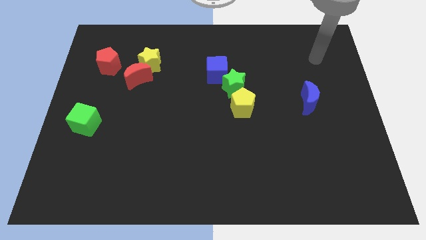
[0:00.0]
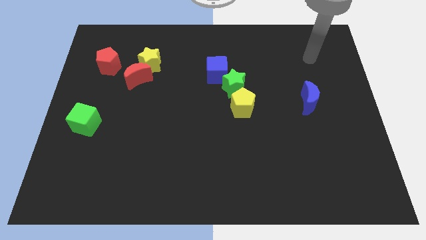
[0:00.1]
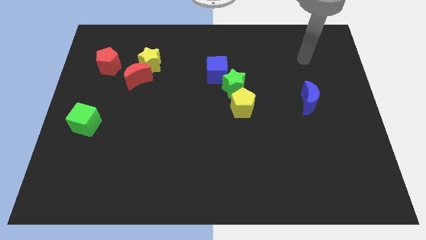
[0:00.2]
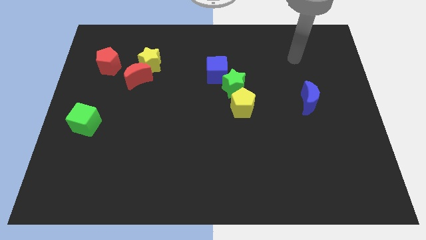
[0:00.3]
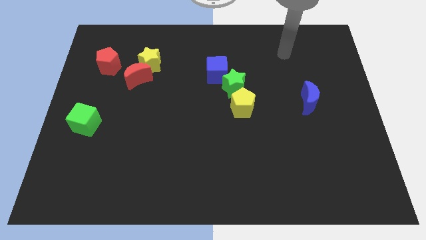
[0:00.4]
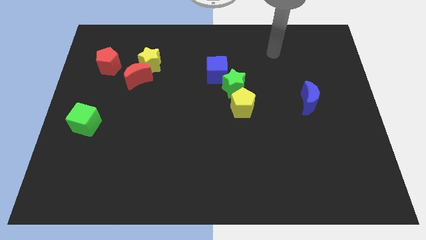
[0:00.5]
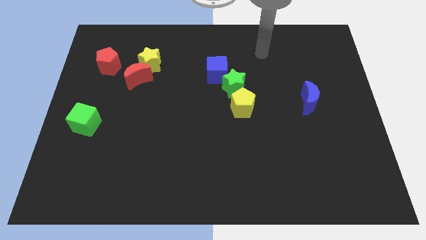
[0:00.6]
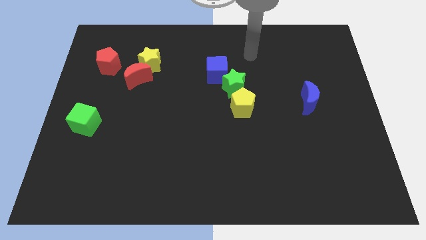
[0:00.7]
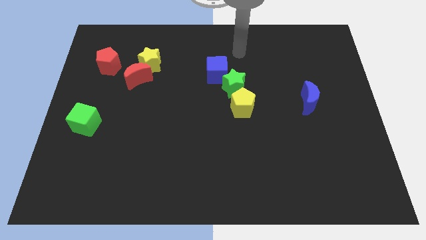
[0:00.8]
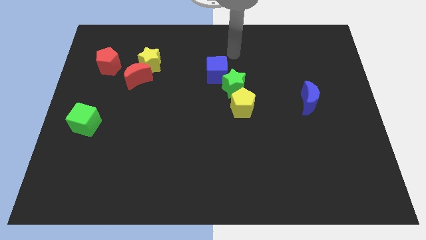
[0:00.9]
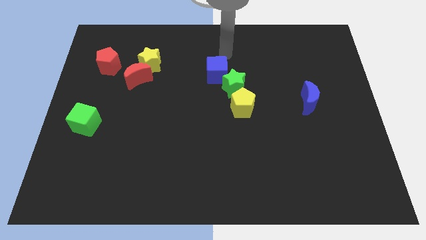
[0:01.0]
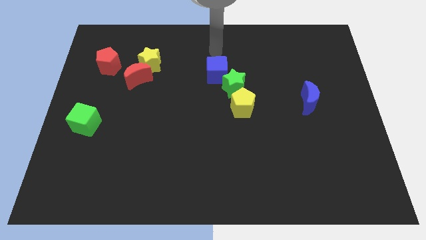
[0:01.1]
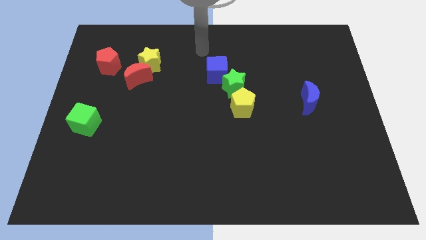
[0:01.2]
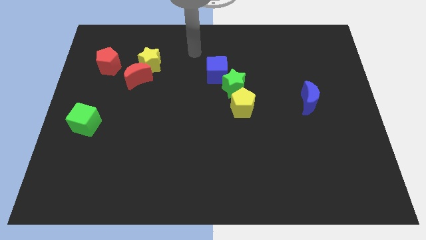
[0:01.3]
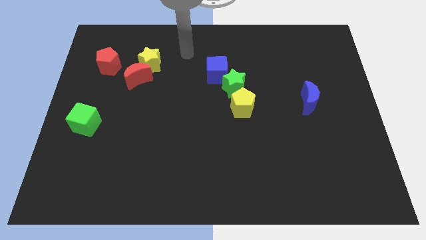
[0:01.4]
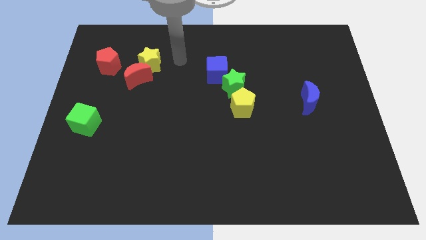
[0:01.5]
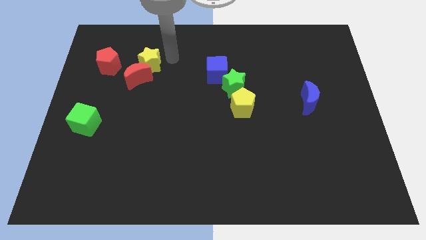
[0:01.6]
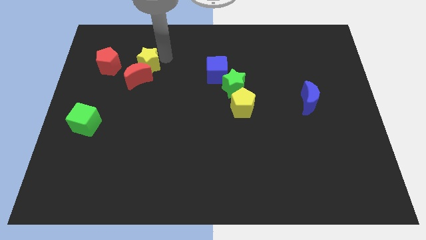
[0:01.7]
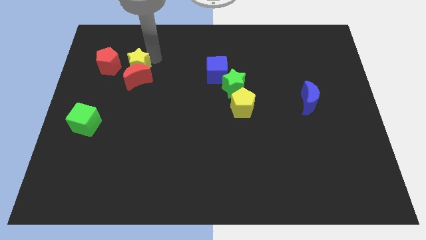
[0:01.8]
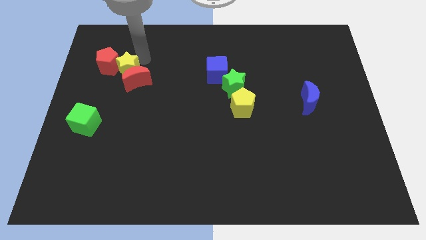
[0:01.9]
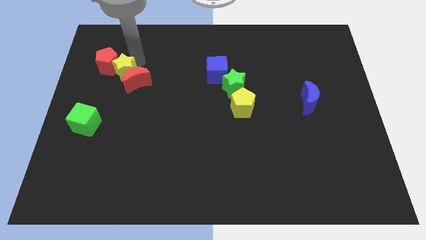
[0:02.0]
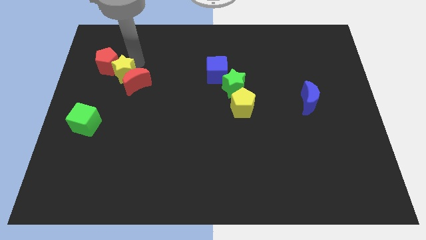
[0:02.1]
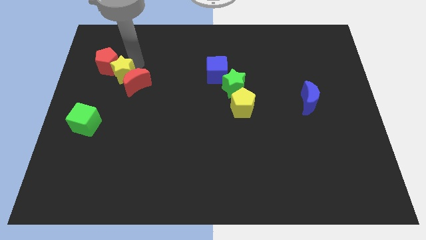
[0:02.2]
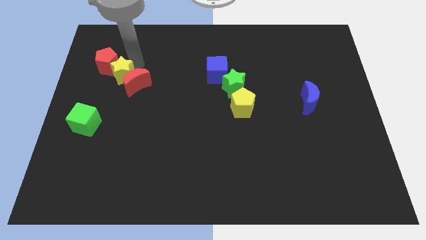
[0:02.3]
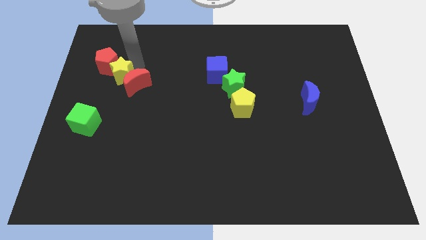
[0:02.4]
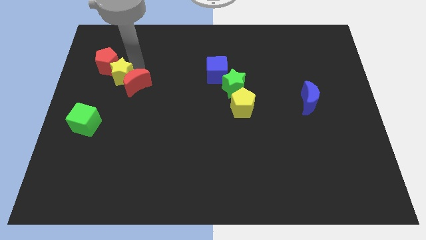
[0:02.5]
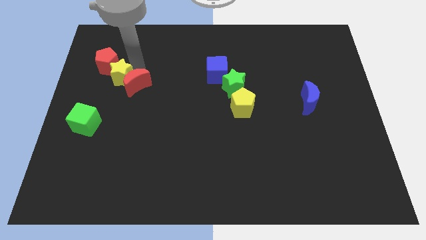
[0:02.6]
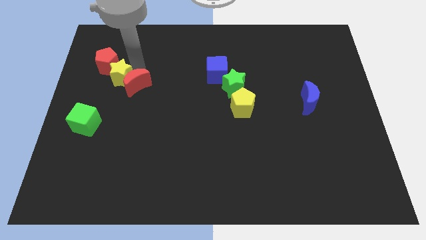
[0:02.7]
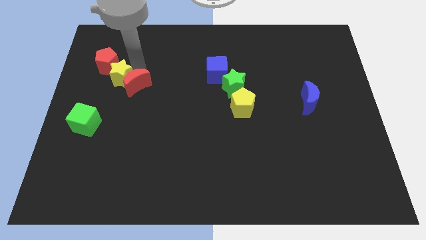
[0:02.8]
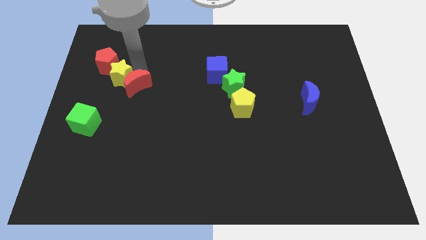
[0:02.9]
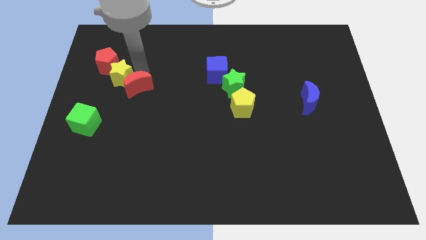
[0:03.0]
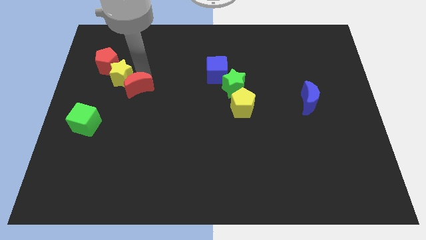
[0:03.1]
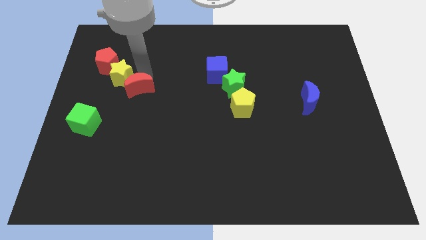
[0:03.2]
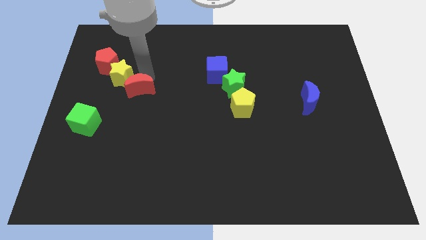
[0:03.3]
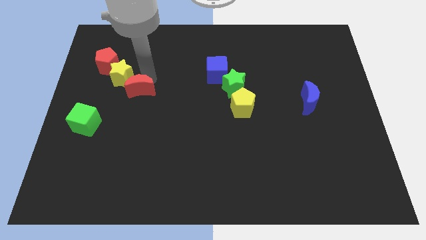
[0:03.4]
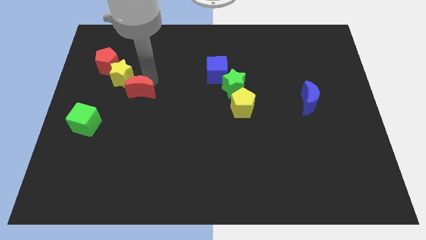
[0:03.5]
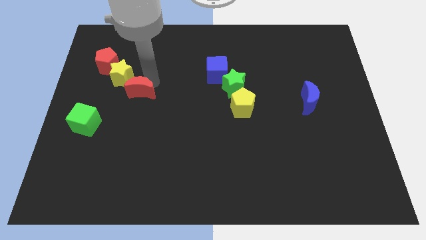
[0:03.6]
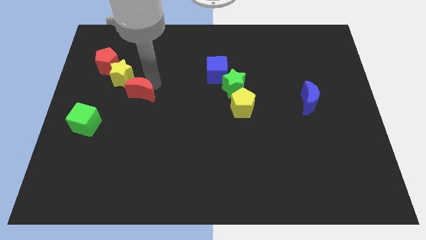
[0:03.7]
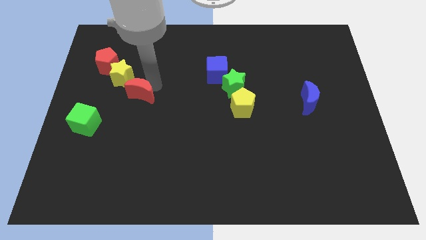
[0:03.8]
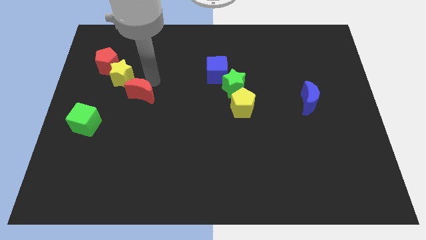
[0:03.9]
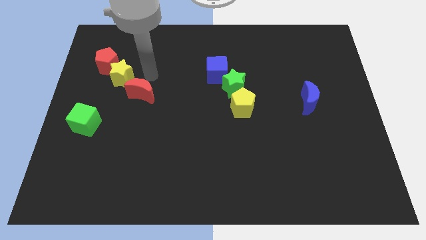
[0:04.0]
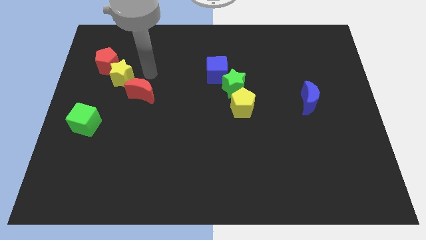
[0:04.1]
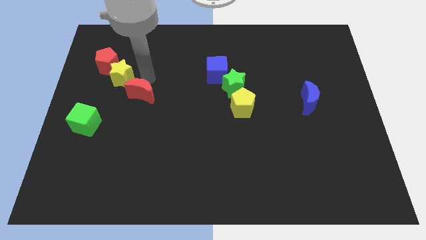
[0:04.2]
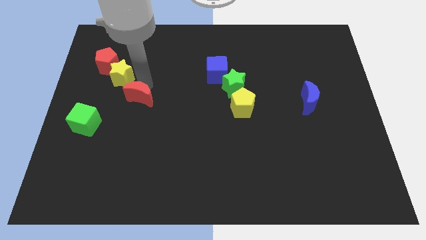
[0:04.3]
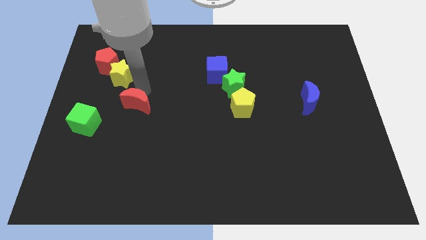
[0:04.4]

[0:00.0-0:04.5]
slightly move the red moon downwards

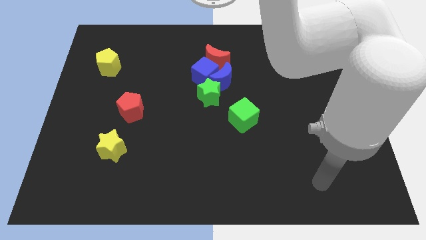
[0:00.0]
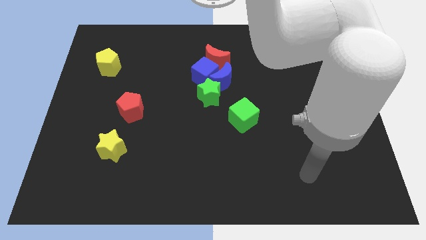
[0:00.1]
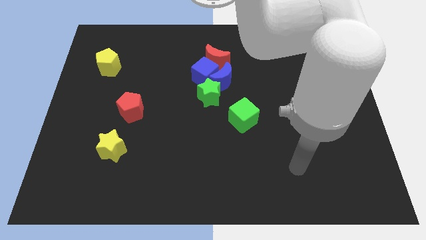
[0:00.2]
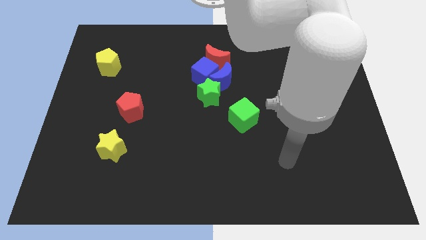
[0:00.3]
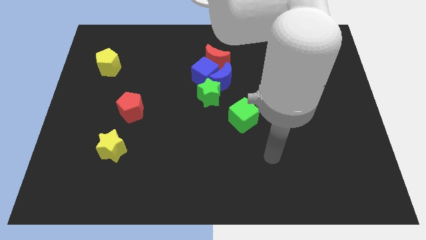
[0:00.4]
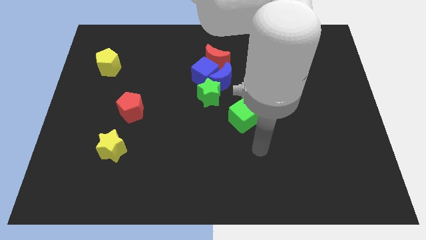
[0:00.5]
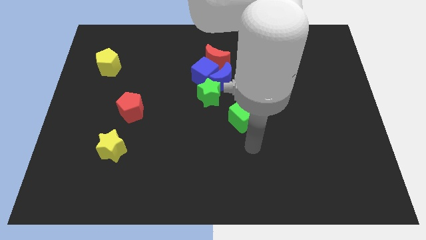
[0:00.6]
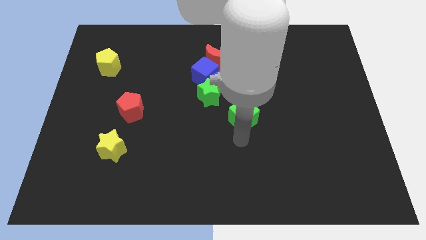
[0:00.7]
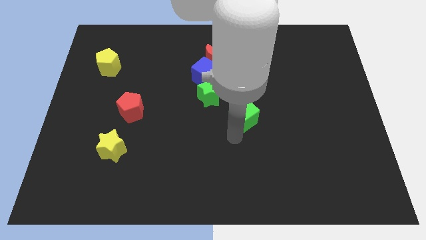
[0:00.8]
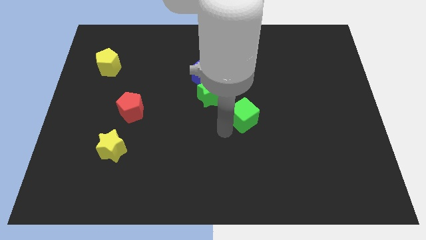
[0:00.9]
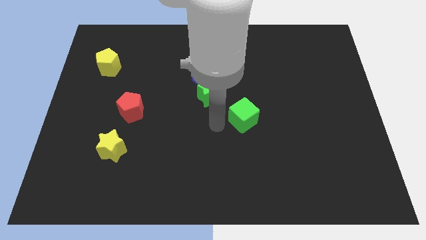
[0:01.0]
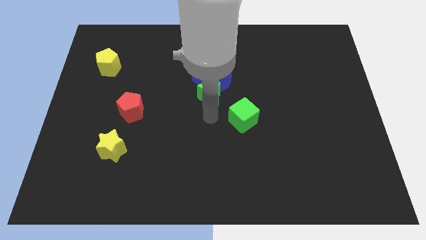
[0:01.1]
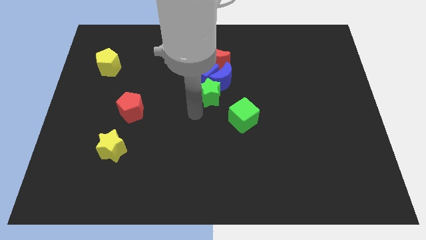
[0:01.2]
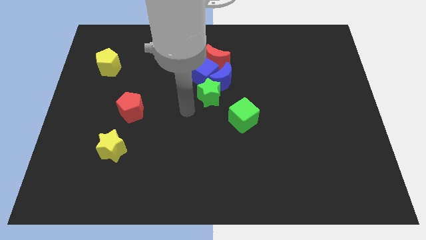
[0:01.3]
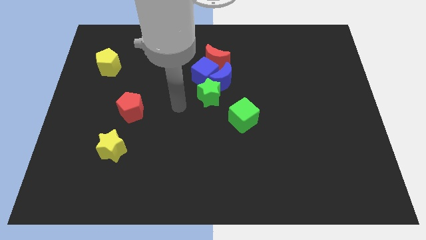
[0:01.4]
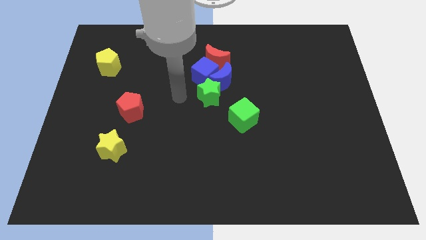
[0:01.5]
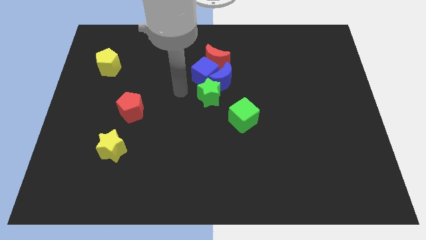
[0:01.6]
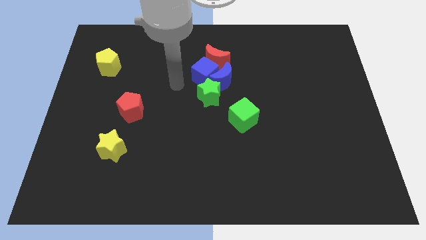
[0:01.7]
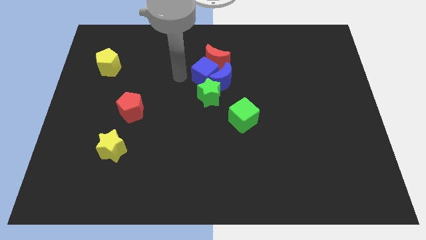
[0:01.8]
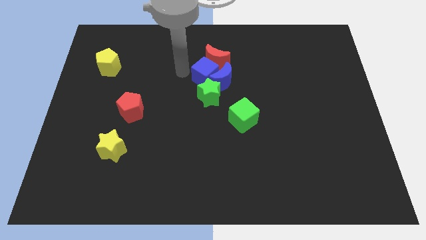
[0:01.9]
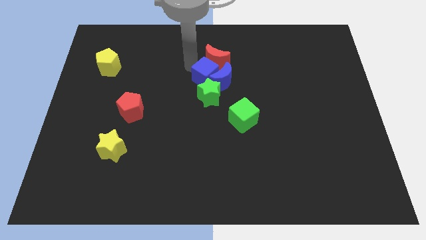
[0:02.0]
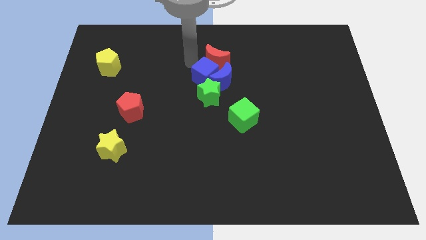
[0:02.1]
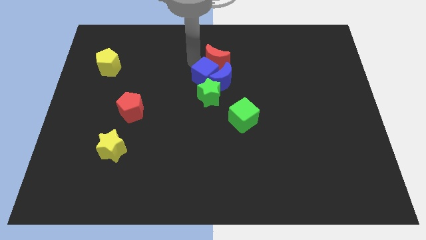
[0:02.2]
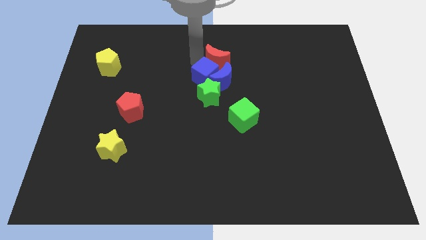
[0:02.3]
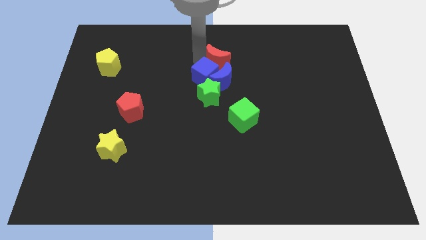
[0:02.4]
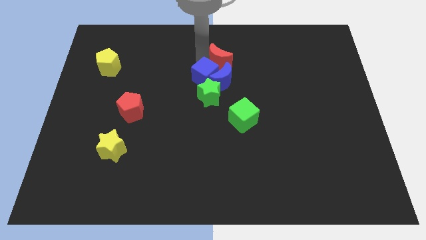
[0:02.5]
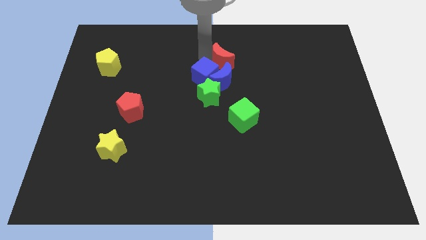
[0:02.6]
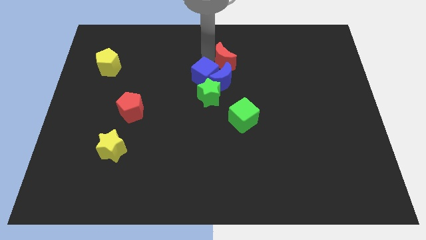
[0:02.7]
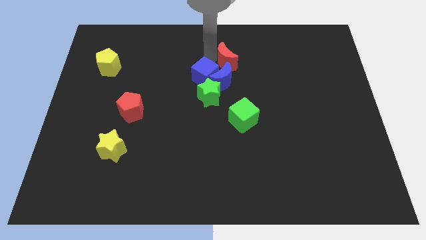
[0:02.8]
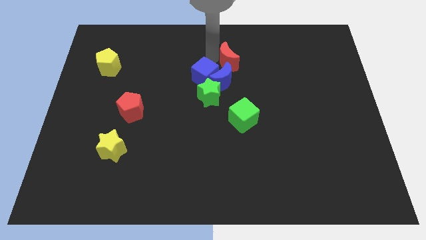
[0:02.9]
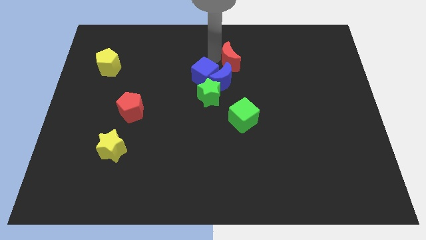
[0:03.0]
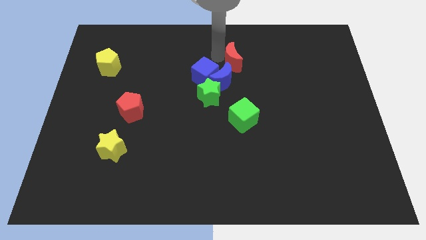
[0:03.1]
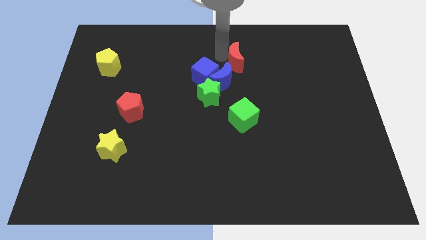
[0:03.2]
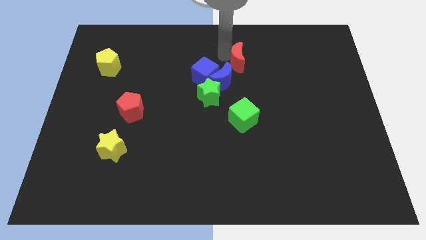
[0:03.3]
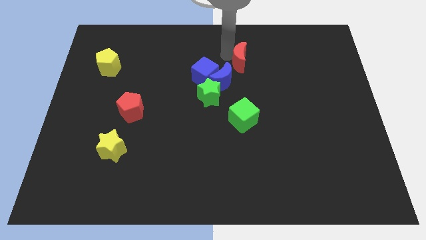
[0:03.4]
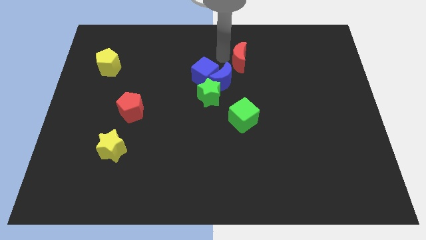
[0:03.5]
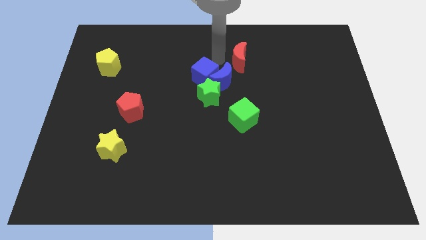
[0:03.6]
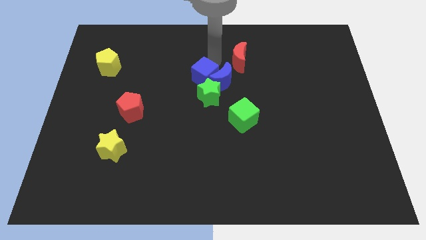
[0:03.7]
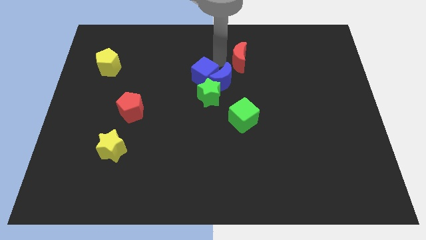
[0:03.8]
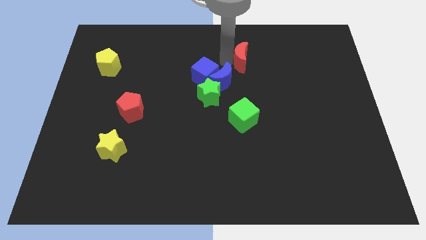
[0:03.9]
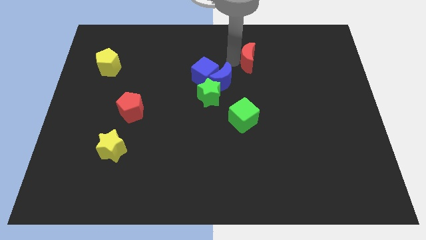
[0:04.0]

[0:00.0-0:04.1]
push the red moon a little to the right
